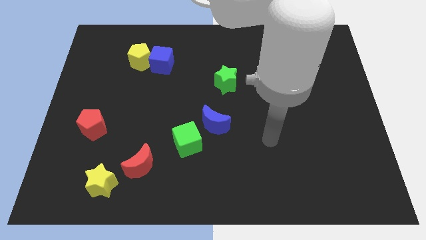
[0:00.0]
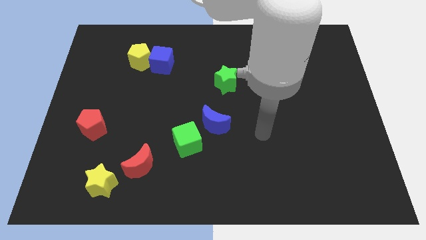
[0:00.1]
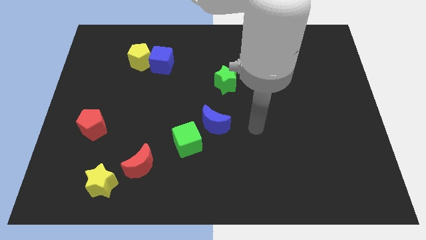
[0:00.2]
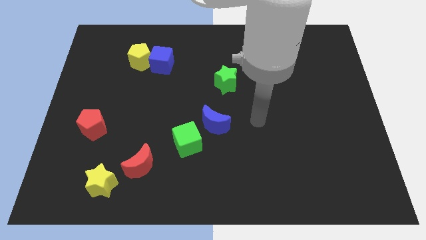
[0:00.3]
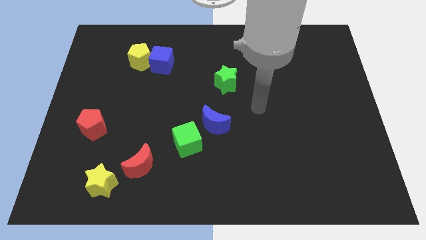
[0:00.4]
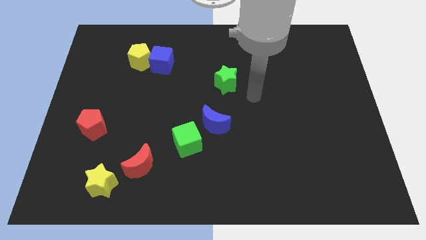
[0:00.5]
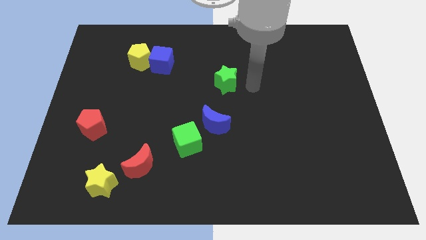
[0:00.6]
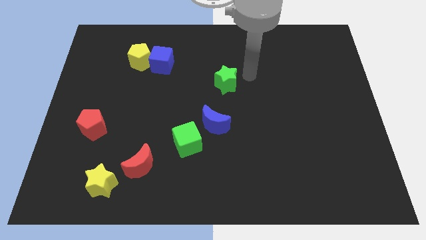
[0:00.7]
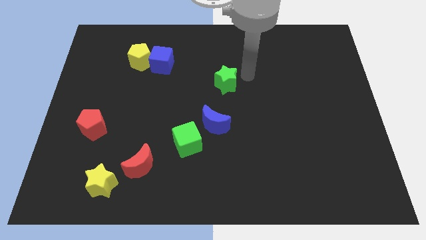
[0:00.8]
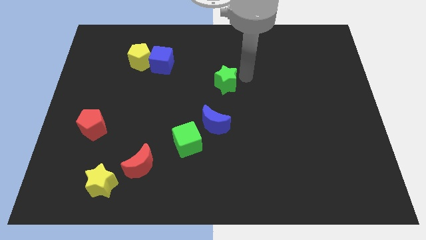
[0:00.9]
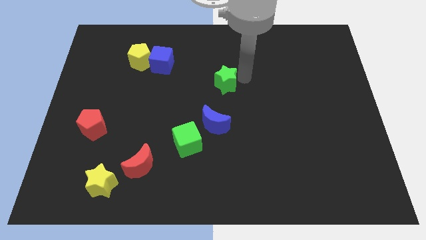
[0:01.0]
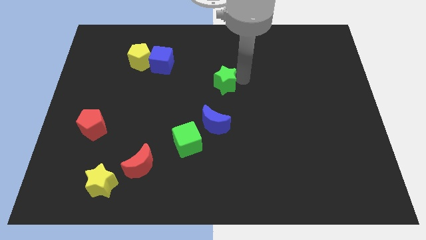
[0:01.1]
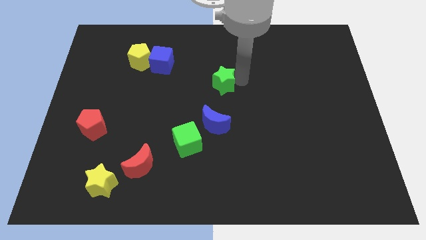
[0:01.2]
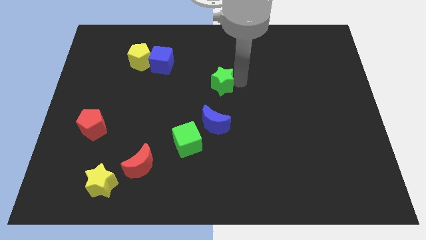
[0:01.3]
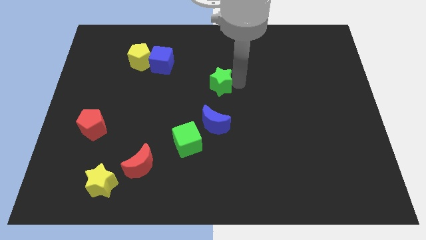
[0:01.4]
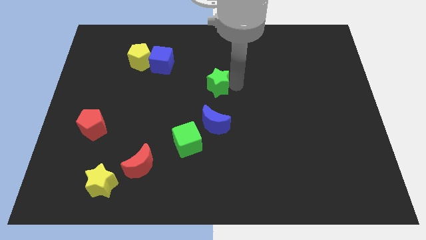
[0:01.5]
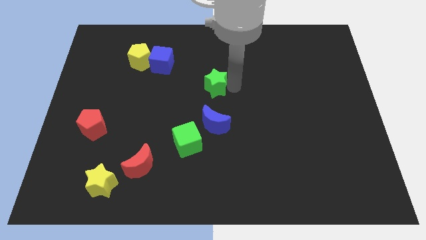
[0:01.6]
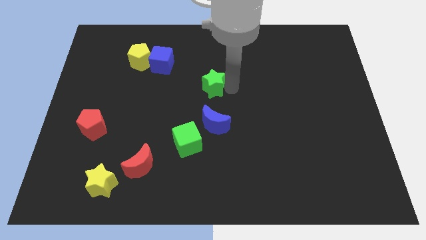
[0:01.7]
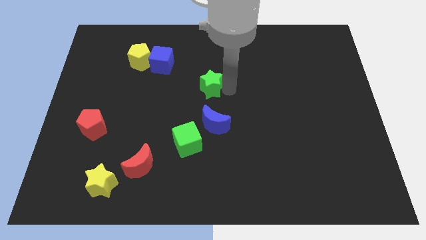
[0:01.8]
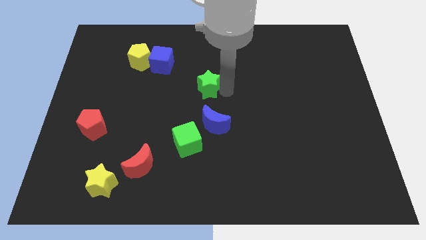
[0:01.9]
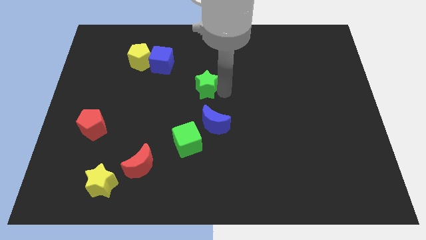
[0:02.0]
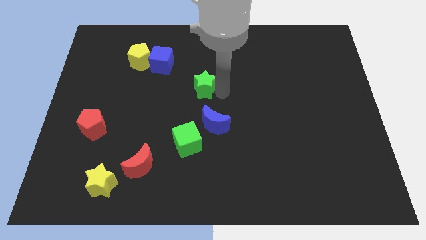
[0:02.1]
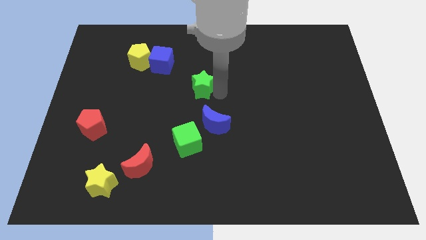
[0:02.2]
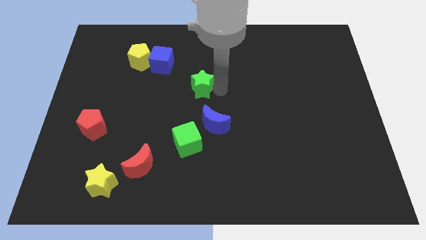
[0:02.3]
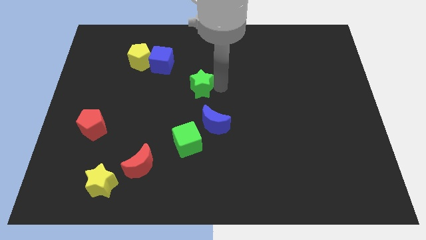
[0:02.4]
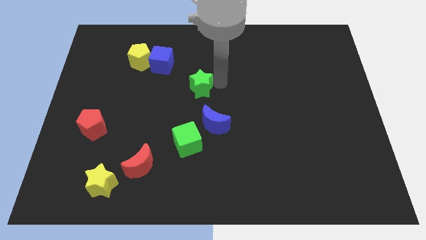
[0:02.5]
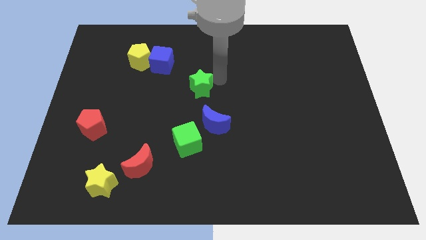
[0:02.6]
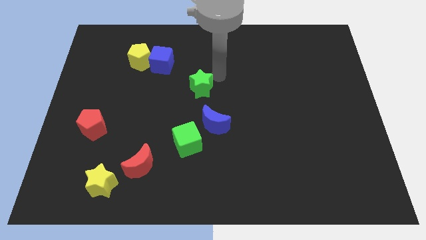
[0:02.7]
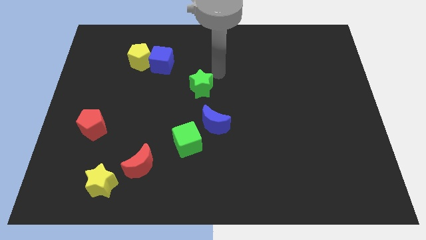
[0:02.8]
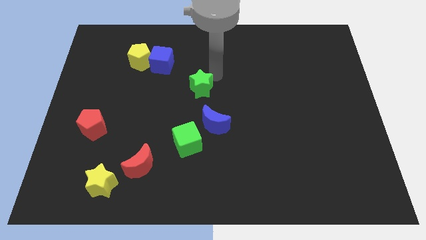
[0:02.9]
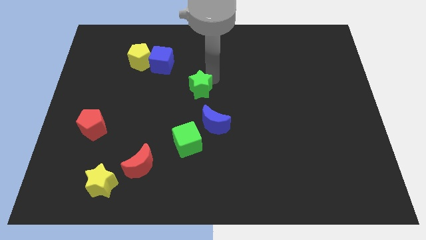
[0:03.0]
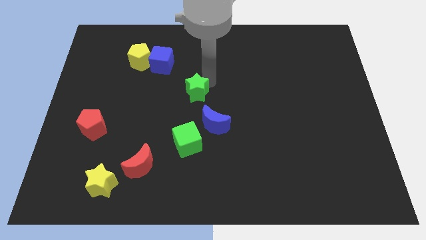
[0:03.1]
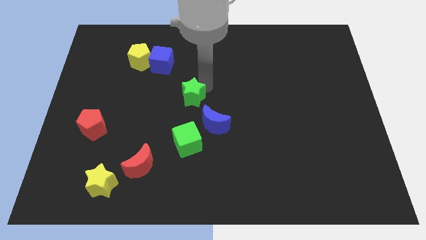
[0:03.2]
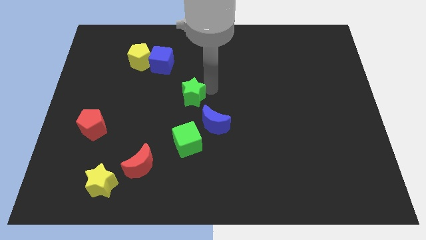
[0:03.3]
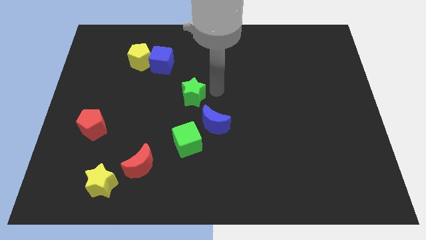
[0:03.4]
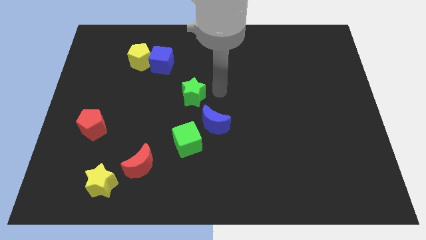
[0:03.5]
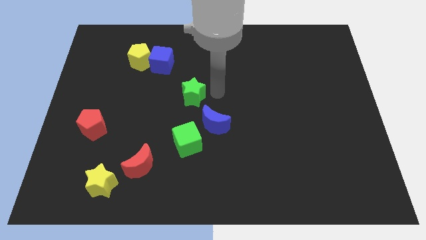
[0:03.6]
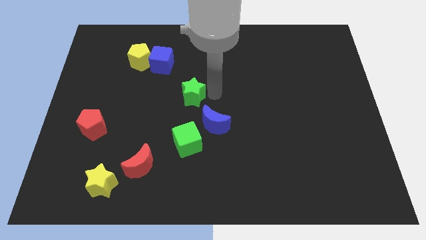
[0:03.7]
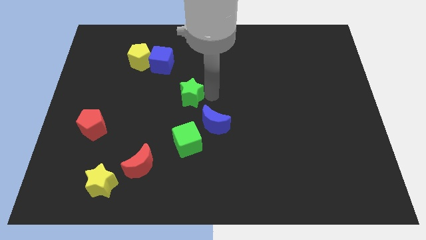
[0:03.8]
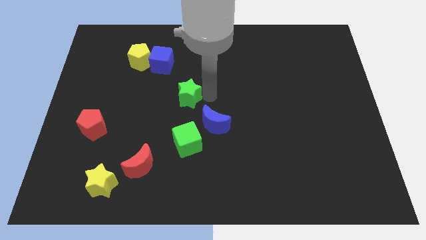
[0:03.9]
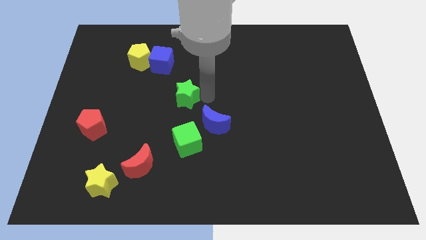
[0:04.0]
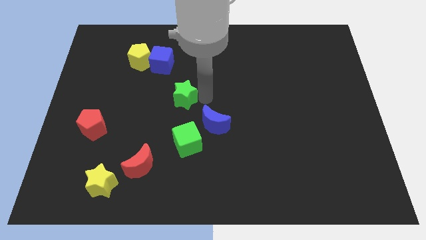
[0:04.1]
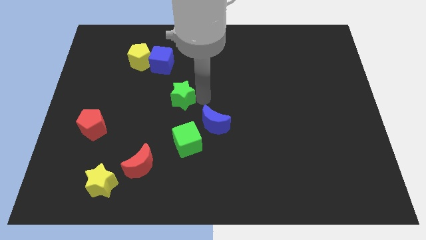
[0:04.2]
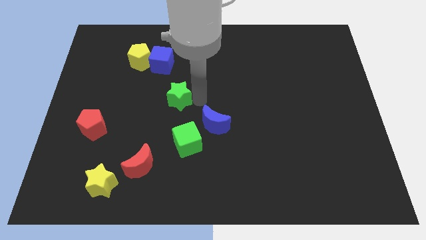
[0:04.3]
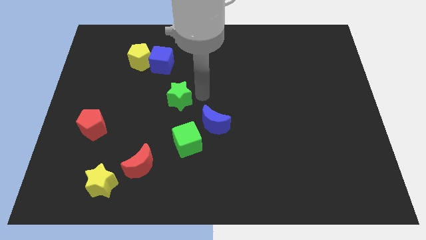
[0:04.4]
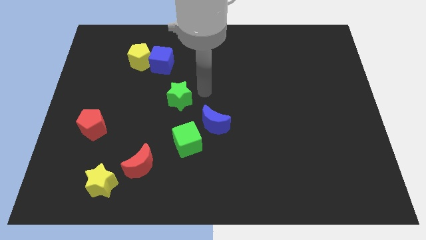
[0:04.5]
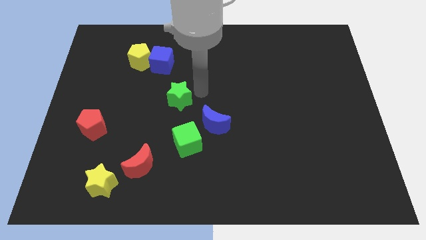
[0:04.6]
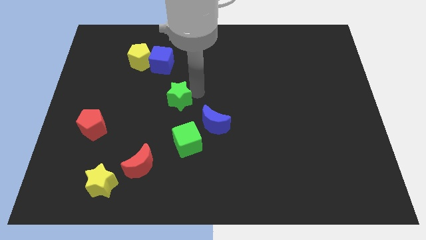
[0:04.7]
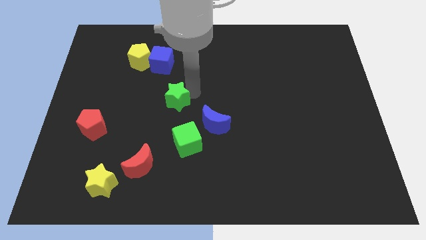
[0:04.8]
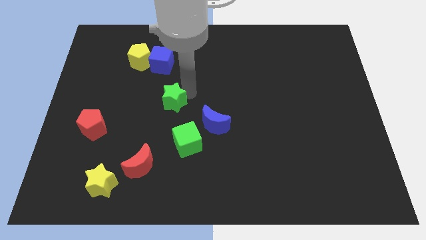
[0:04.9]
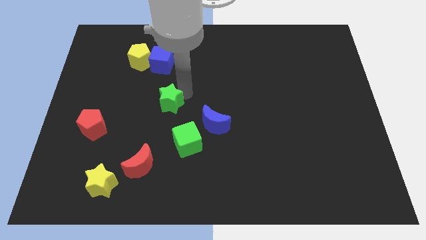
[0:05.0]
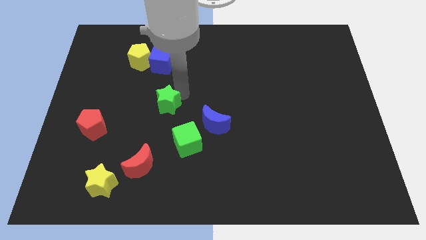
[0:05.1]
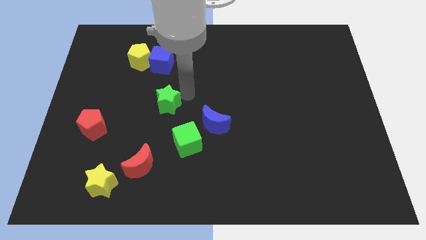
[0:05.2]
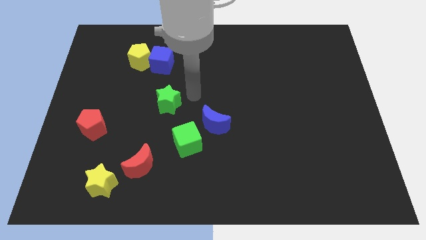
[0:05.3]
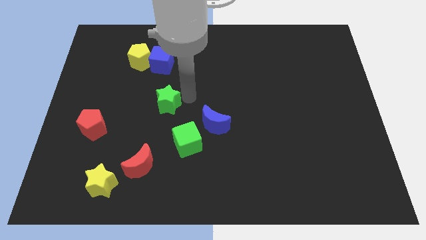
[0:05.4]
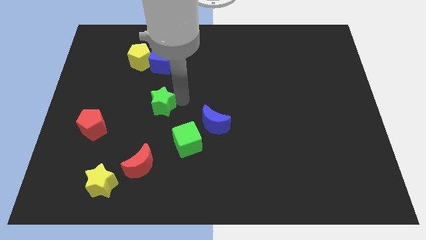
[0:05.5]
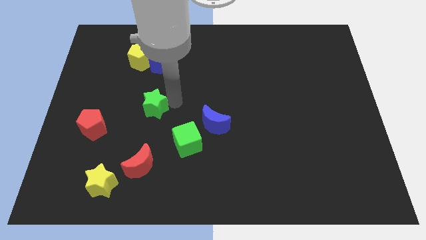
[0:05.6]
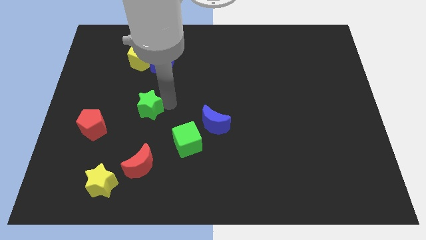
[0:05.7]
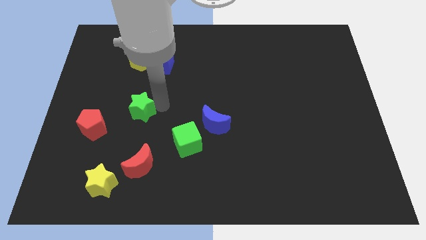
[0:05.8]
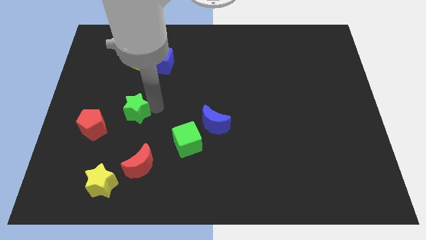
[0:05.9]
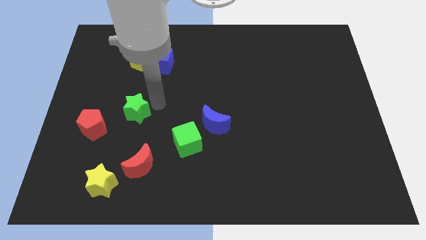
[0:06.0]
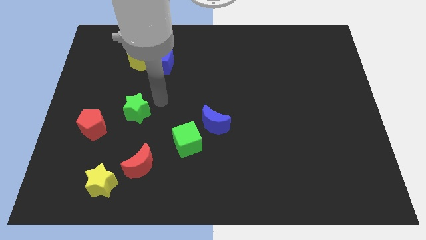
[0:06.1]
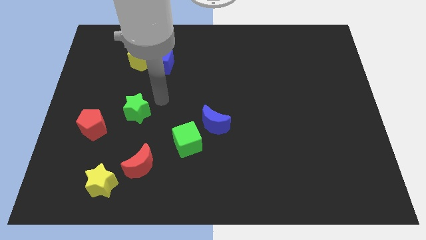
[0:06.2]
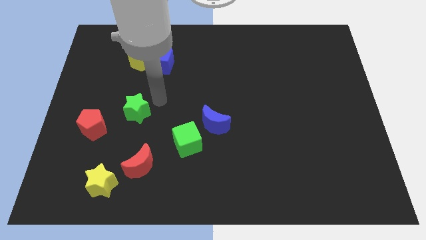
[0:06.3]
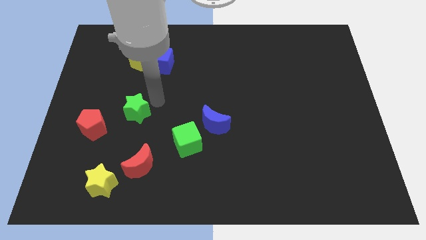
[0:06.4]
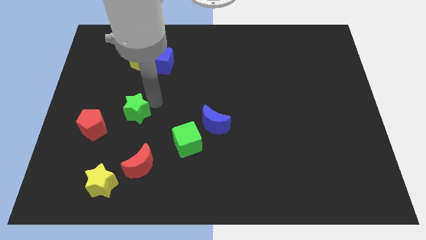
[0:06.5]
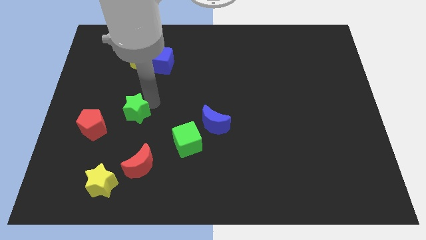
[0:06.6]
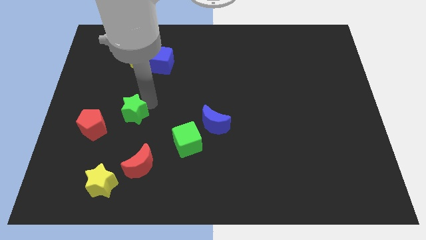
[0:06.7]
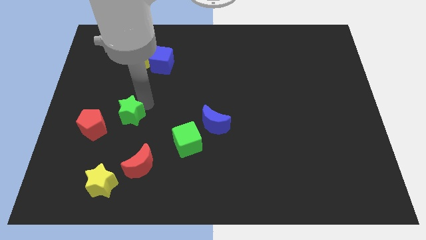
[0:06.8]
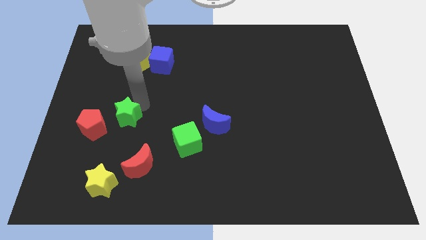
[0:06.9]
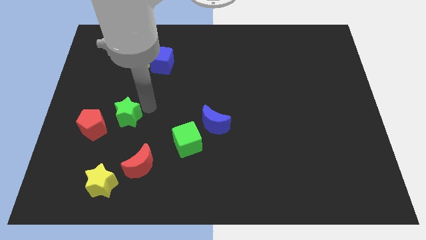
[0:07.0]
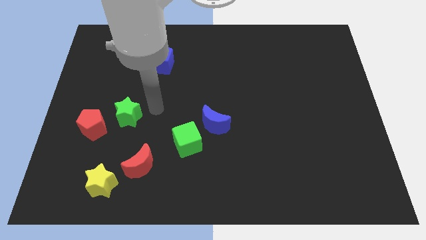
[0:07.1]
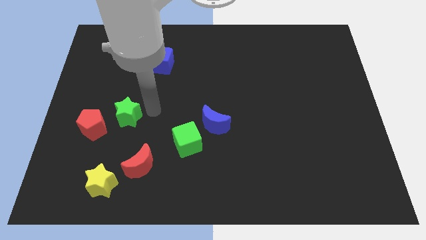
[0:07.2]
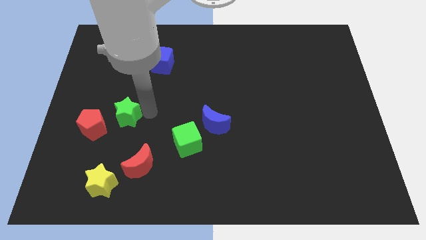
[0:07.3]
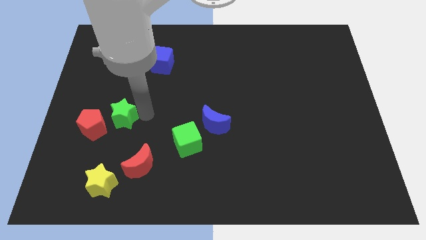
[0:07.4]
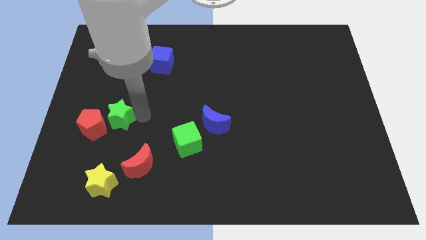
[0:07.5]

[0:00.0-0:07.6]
move the green star to the red pentagon

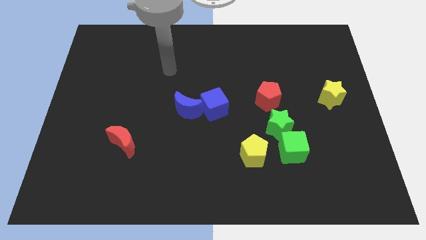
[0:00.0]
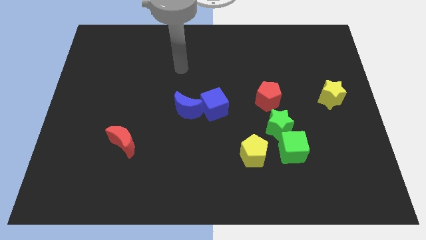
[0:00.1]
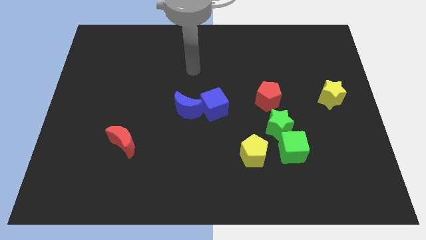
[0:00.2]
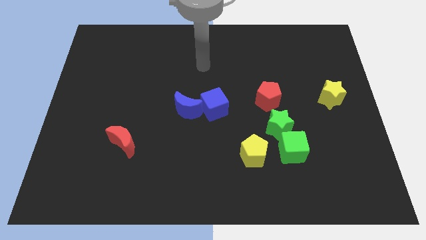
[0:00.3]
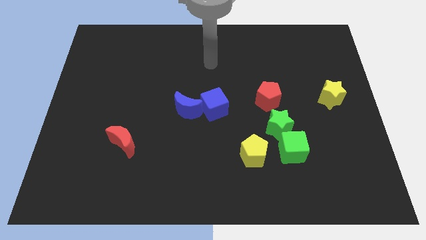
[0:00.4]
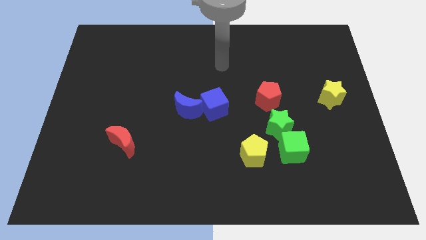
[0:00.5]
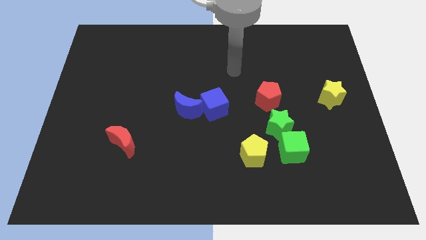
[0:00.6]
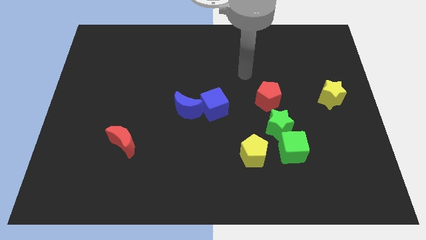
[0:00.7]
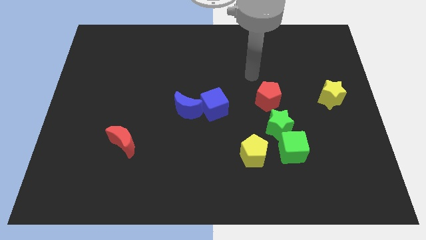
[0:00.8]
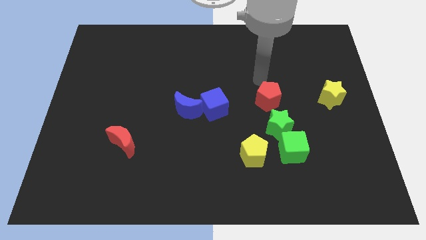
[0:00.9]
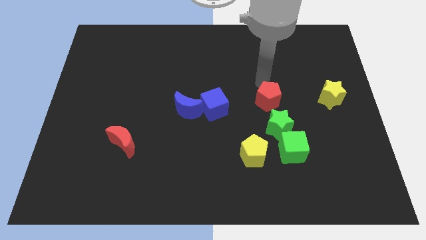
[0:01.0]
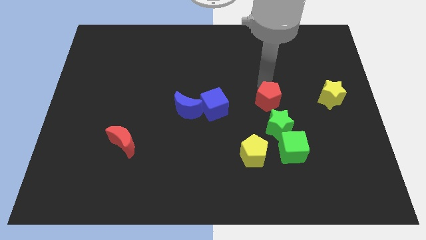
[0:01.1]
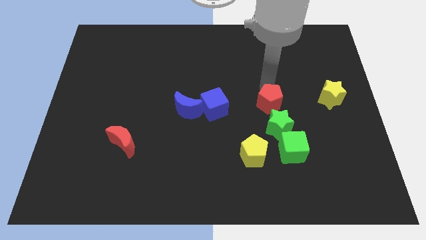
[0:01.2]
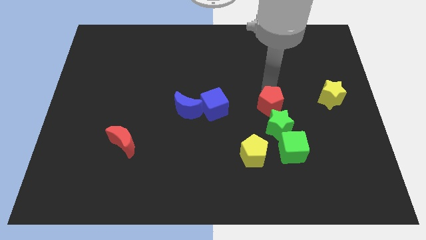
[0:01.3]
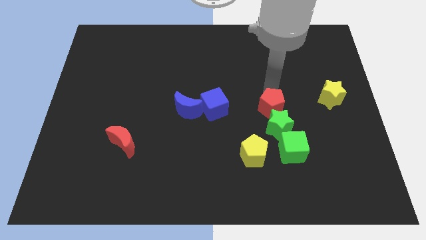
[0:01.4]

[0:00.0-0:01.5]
push the red pentagon close to the green star
